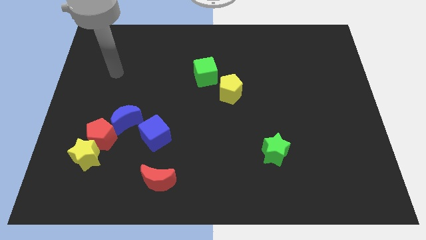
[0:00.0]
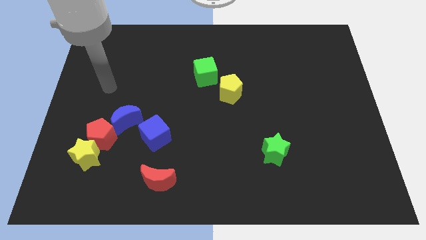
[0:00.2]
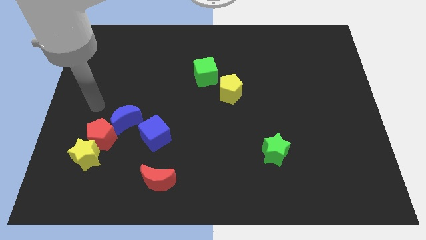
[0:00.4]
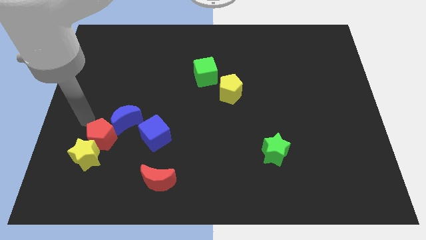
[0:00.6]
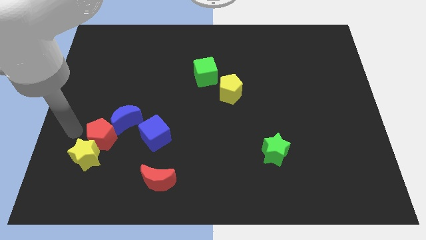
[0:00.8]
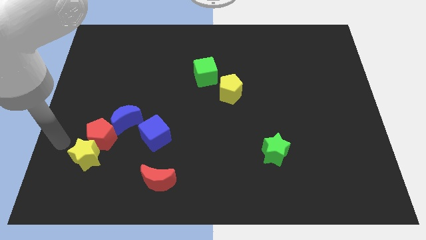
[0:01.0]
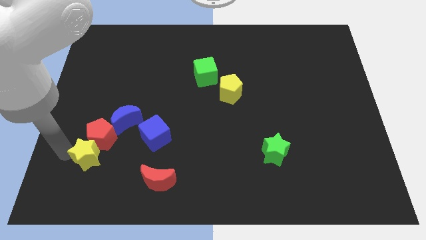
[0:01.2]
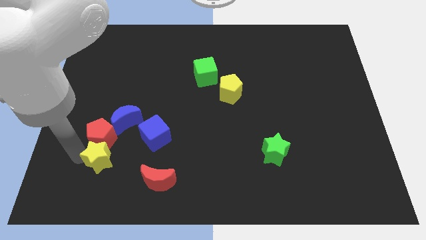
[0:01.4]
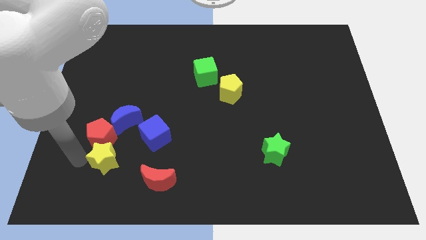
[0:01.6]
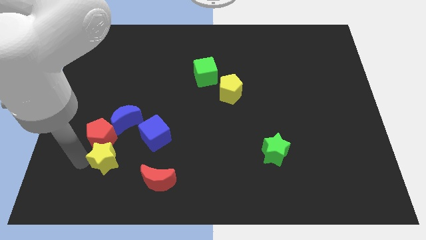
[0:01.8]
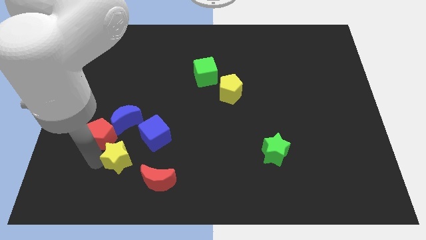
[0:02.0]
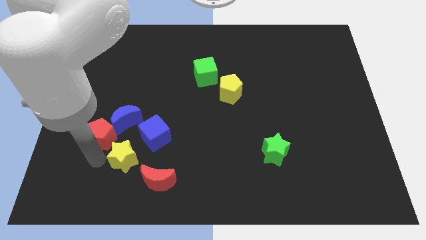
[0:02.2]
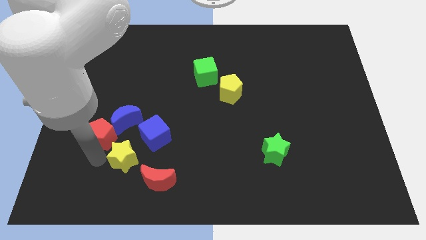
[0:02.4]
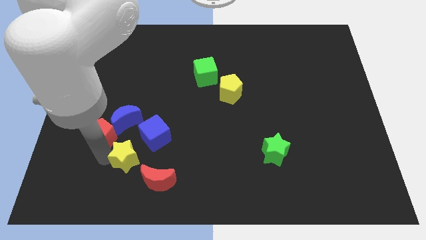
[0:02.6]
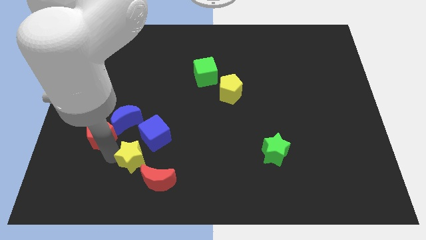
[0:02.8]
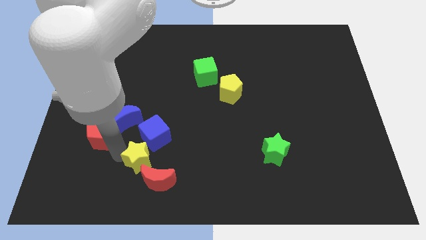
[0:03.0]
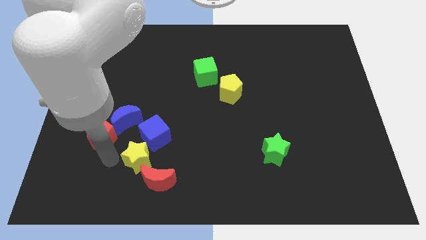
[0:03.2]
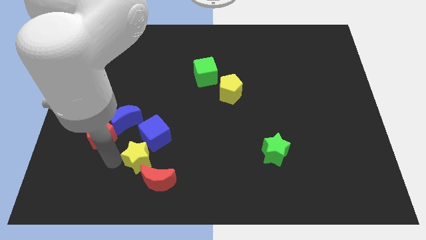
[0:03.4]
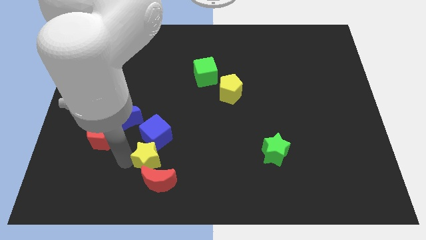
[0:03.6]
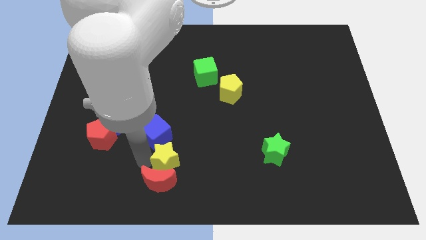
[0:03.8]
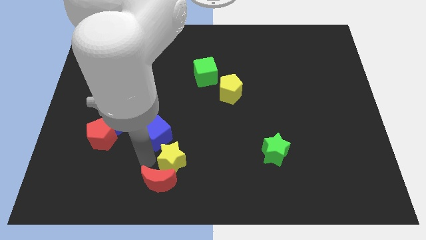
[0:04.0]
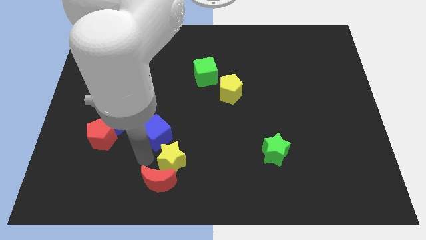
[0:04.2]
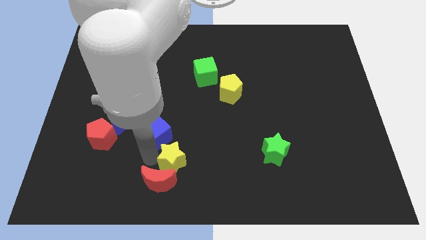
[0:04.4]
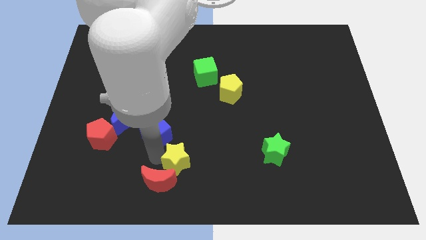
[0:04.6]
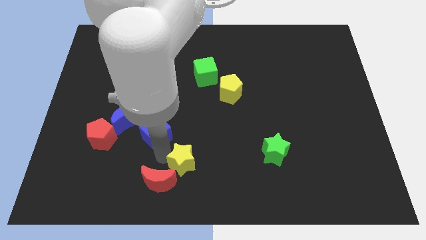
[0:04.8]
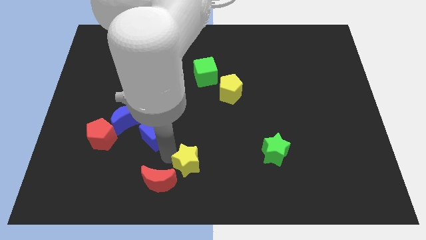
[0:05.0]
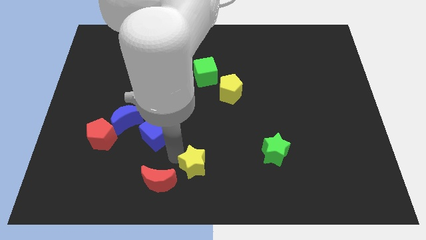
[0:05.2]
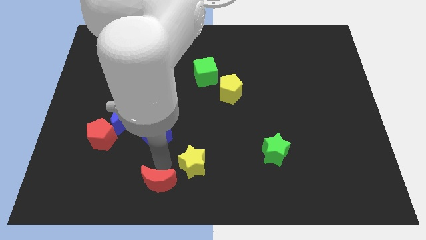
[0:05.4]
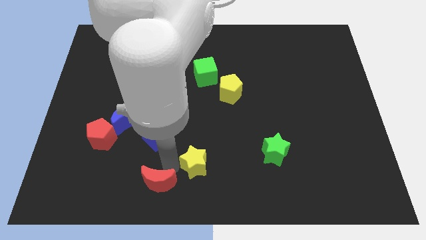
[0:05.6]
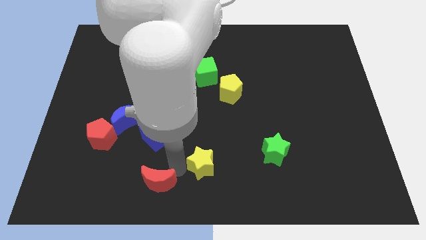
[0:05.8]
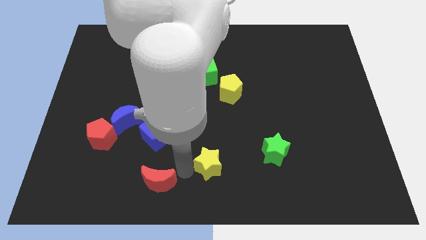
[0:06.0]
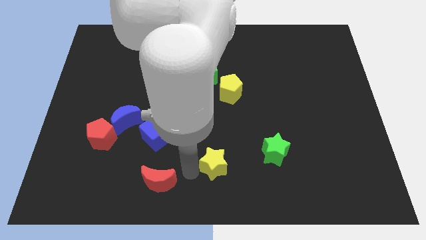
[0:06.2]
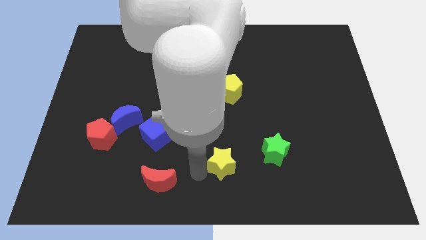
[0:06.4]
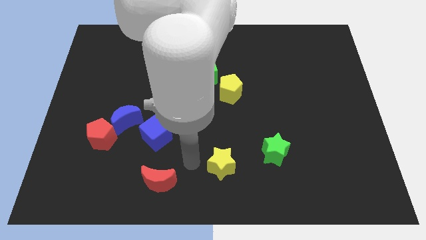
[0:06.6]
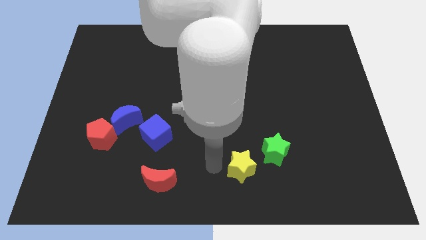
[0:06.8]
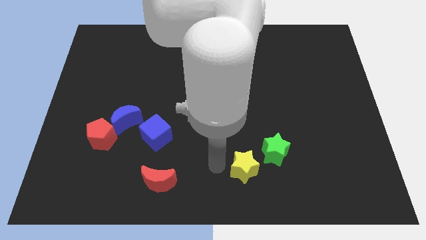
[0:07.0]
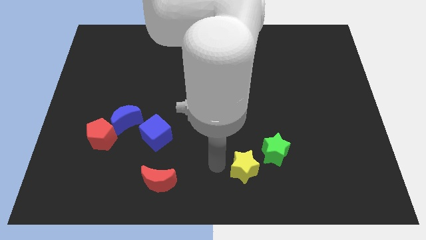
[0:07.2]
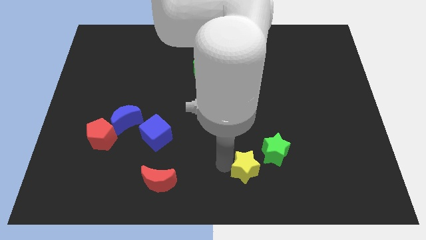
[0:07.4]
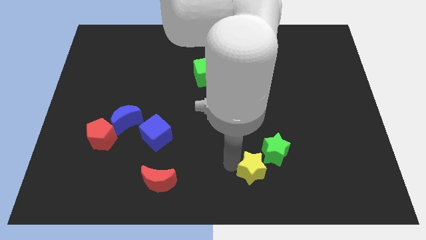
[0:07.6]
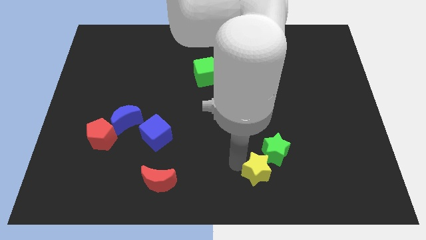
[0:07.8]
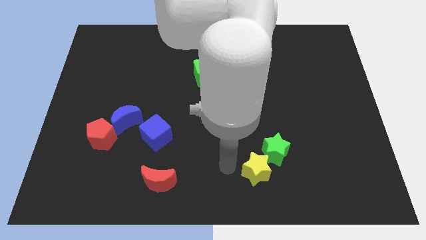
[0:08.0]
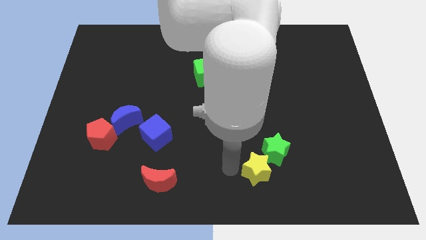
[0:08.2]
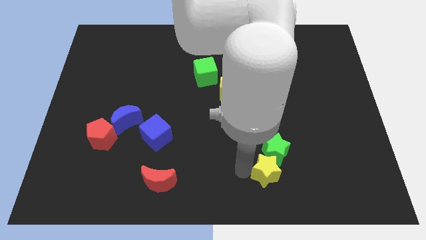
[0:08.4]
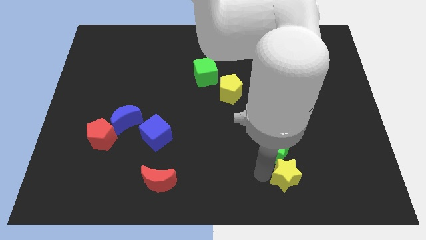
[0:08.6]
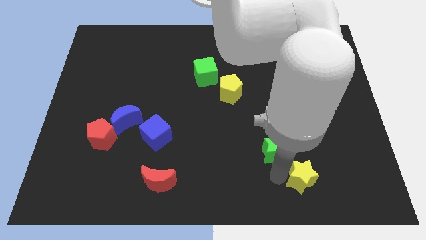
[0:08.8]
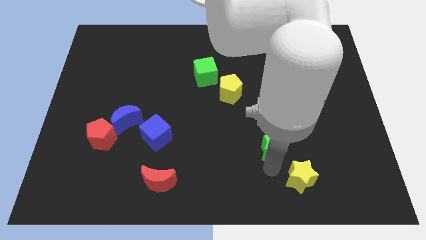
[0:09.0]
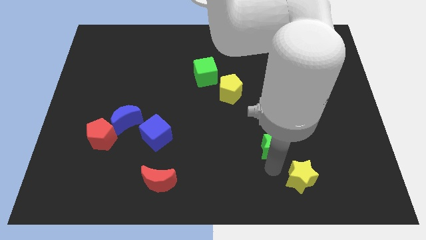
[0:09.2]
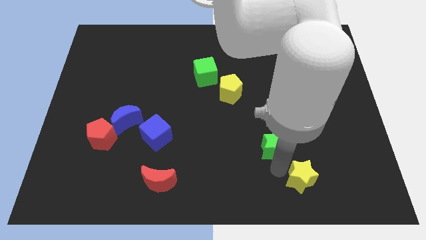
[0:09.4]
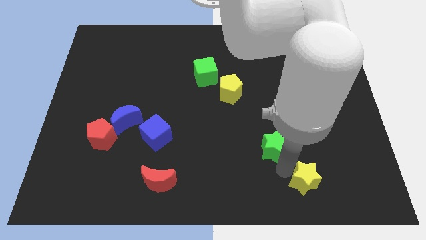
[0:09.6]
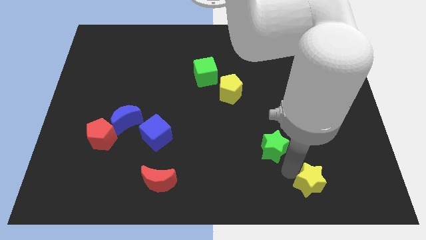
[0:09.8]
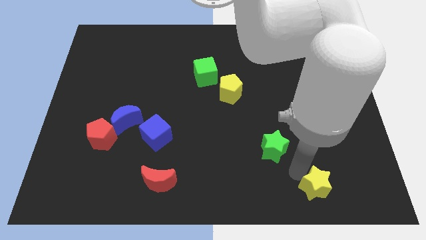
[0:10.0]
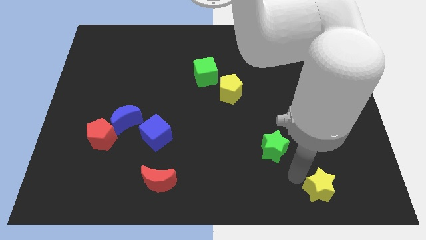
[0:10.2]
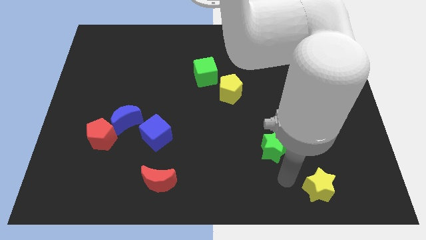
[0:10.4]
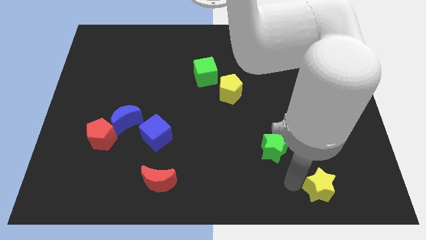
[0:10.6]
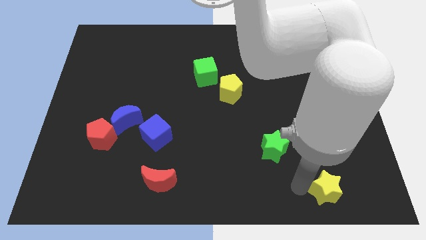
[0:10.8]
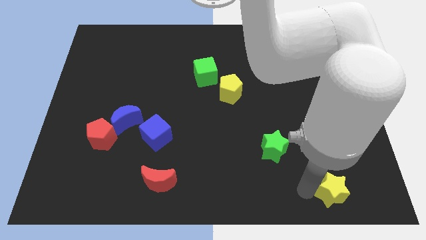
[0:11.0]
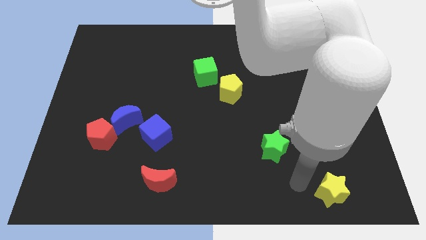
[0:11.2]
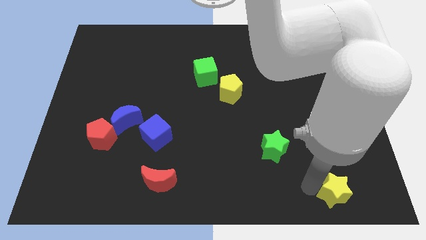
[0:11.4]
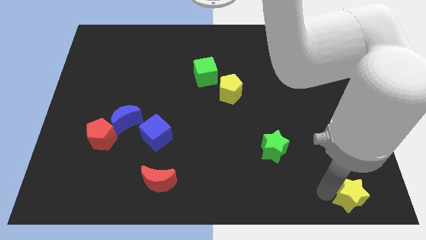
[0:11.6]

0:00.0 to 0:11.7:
slide the yellow star to the bottom right corner

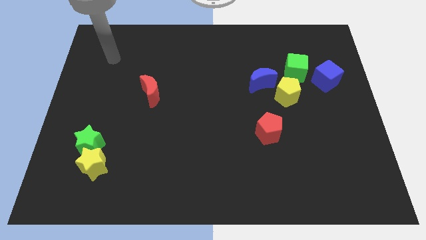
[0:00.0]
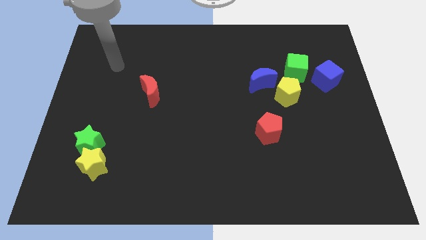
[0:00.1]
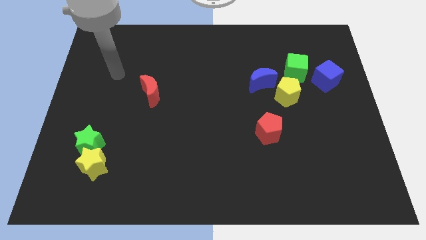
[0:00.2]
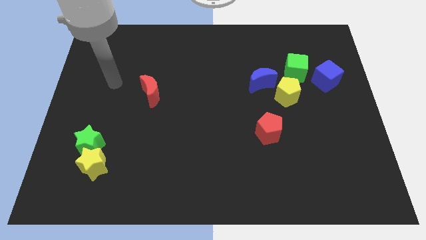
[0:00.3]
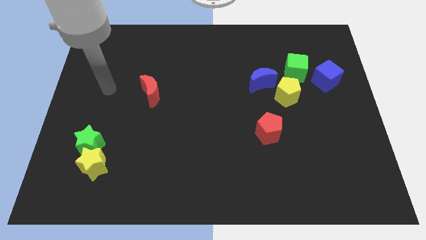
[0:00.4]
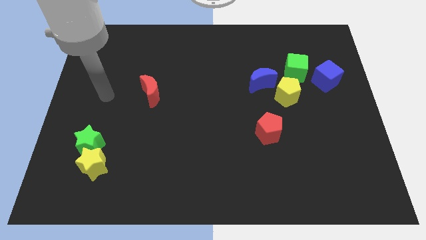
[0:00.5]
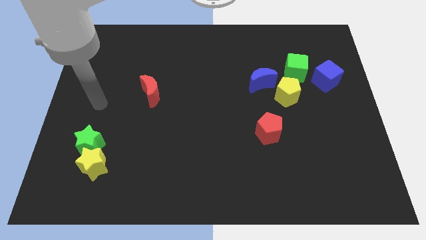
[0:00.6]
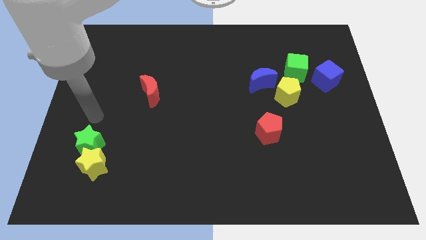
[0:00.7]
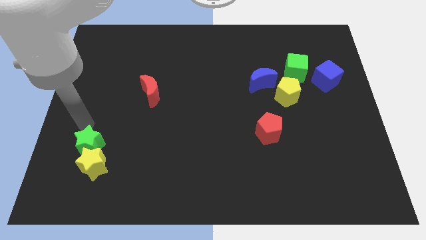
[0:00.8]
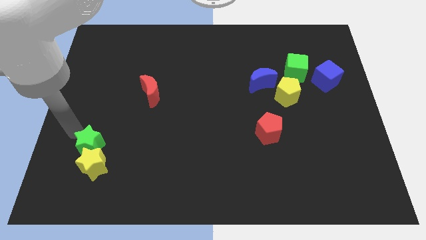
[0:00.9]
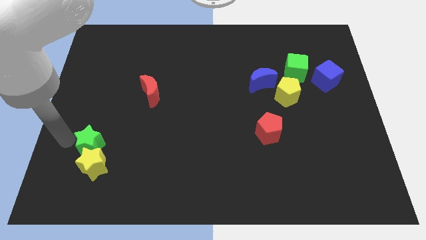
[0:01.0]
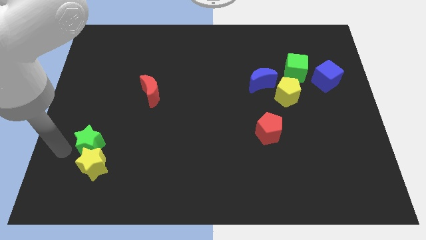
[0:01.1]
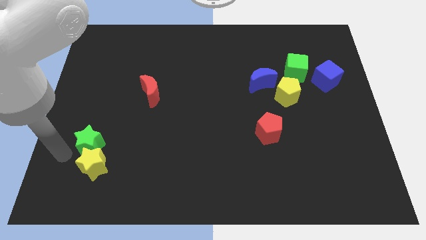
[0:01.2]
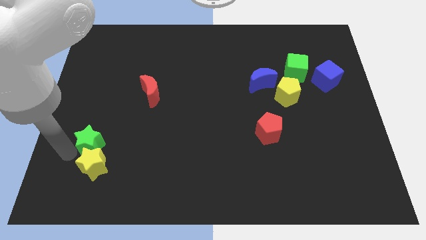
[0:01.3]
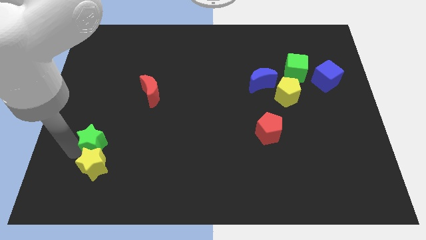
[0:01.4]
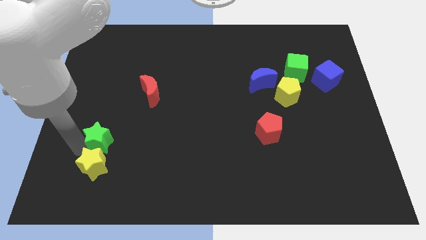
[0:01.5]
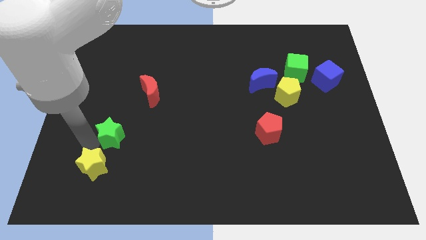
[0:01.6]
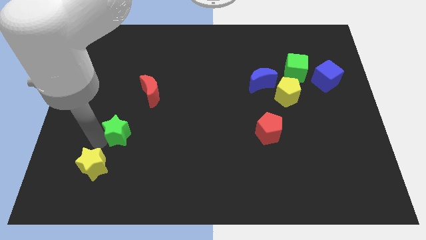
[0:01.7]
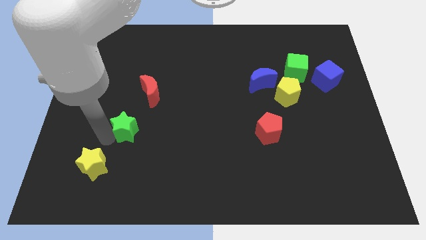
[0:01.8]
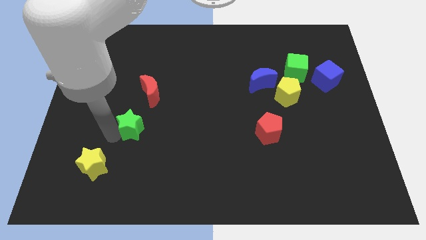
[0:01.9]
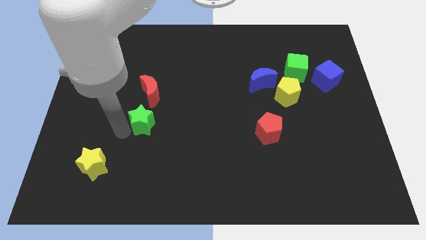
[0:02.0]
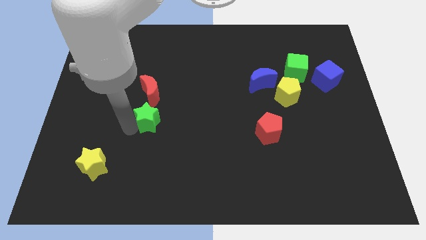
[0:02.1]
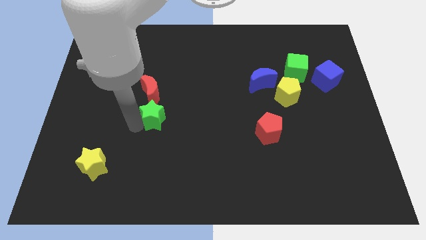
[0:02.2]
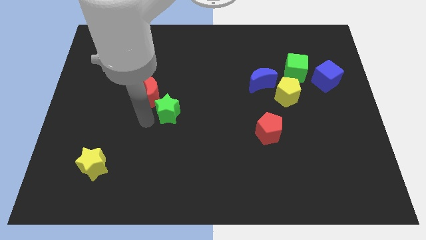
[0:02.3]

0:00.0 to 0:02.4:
put the green star to the middle
